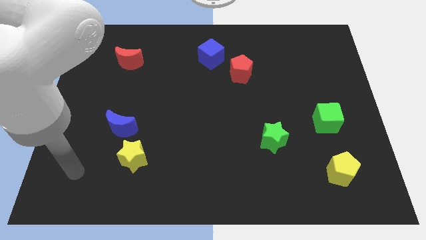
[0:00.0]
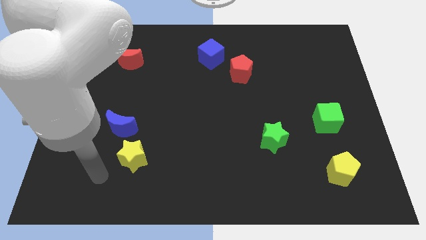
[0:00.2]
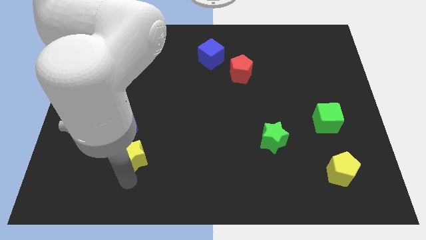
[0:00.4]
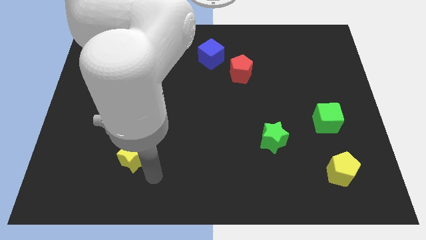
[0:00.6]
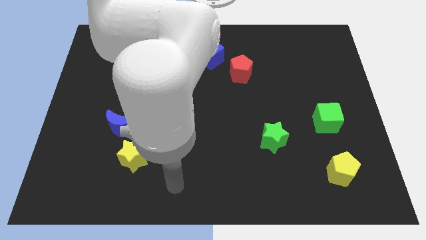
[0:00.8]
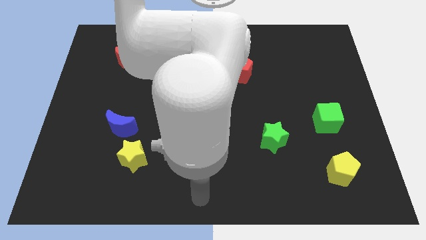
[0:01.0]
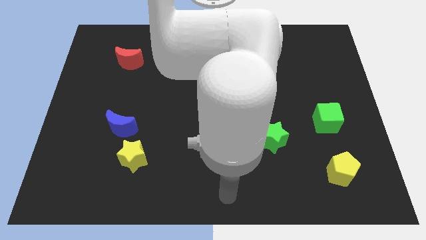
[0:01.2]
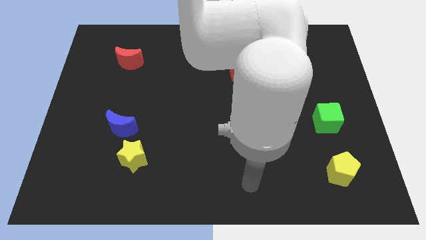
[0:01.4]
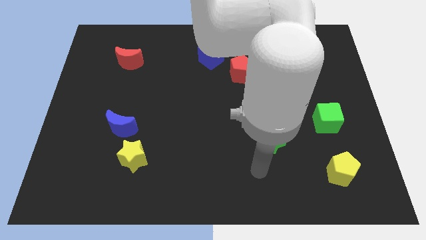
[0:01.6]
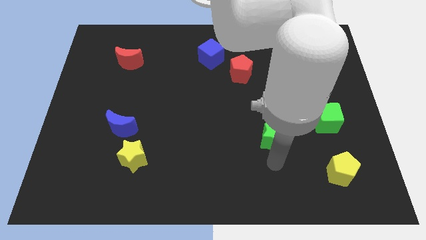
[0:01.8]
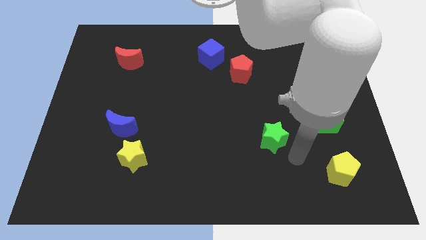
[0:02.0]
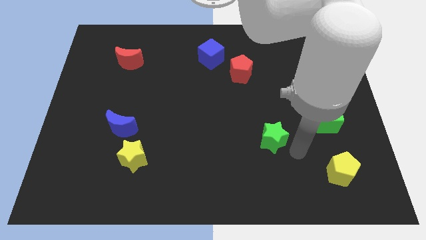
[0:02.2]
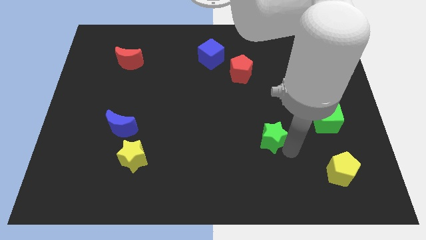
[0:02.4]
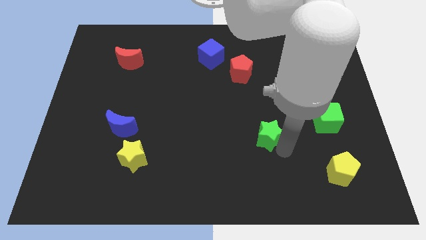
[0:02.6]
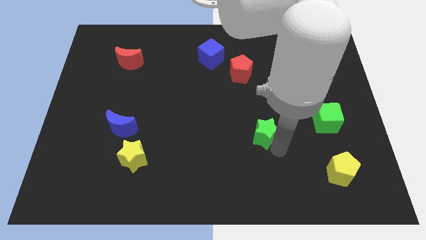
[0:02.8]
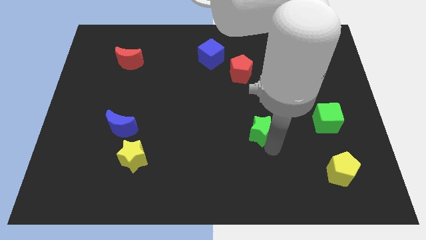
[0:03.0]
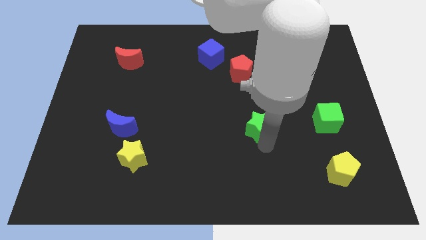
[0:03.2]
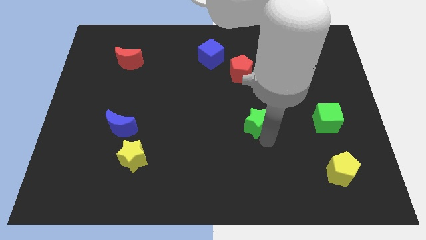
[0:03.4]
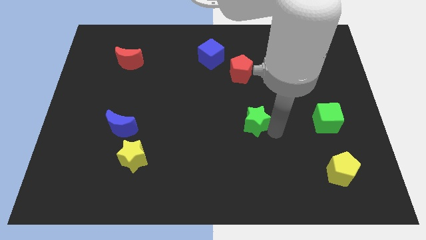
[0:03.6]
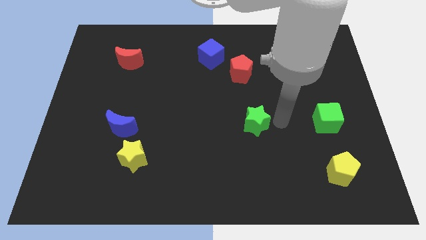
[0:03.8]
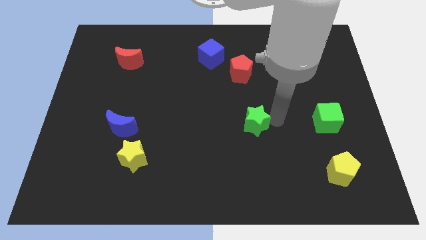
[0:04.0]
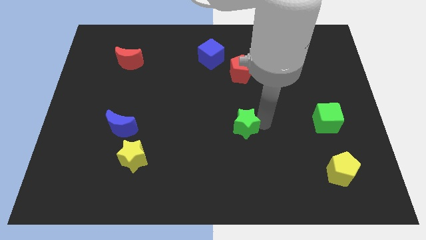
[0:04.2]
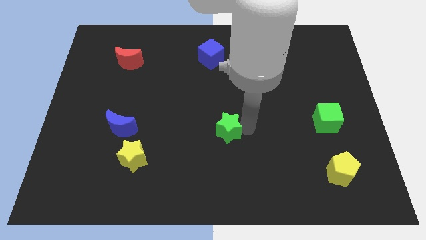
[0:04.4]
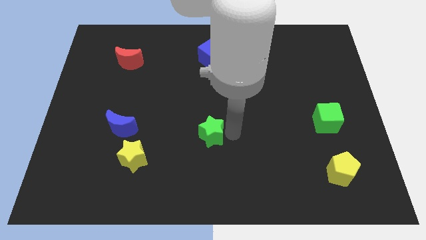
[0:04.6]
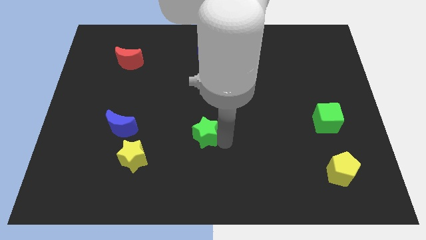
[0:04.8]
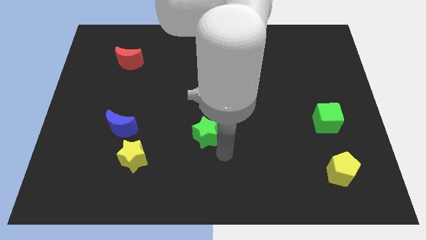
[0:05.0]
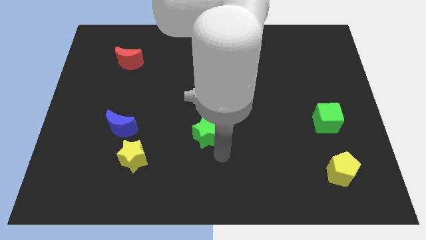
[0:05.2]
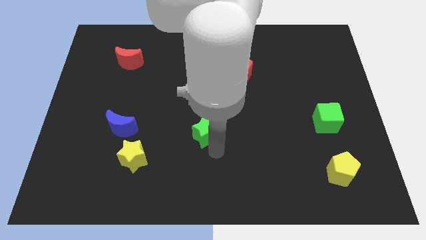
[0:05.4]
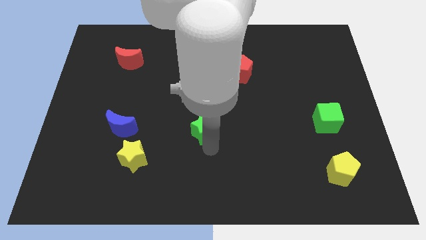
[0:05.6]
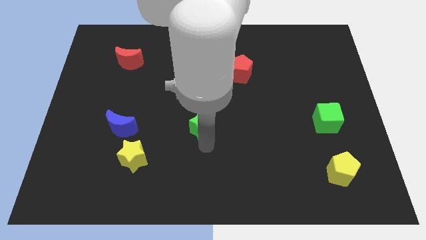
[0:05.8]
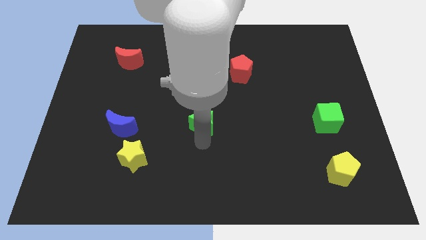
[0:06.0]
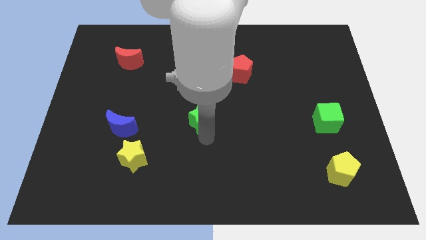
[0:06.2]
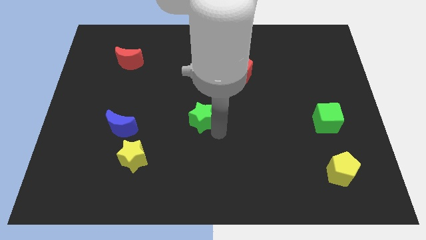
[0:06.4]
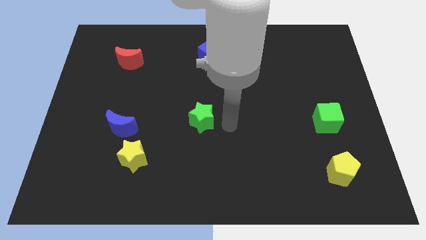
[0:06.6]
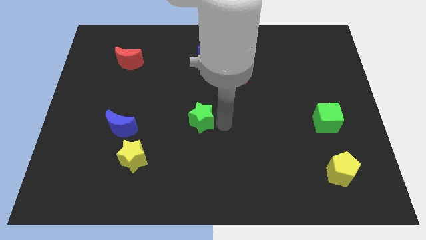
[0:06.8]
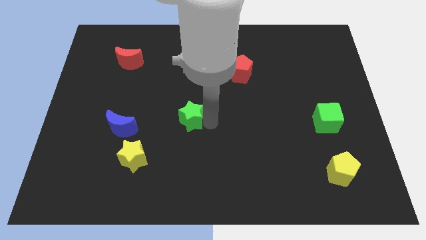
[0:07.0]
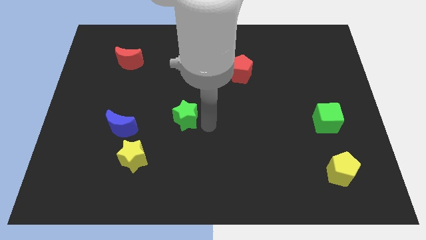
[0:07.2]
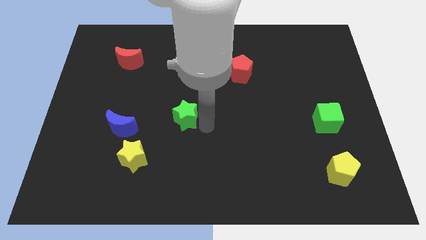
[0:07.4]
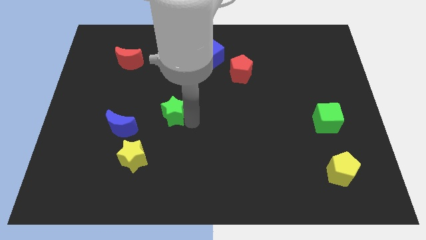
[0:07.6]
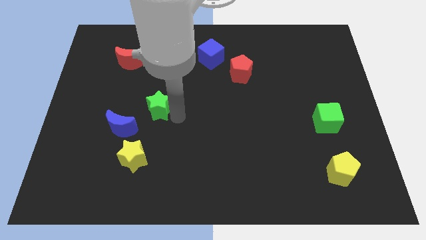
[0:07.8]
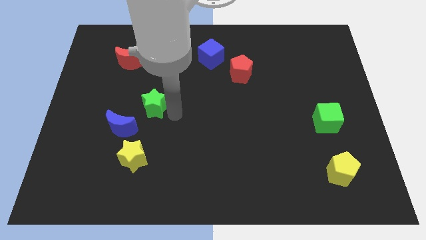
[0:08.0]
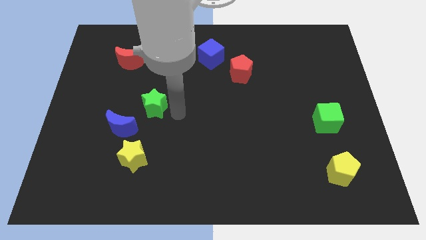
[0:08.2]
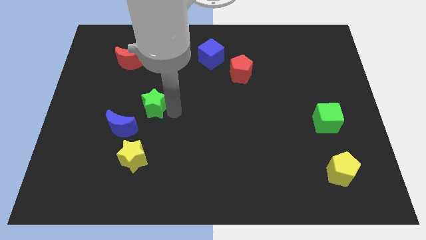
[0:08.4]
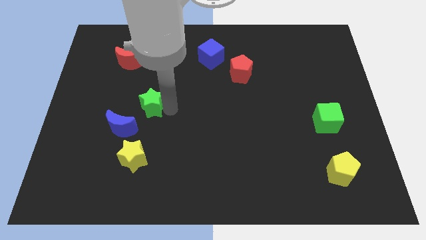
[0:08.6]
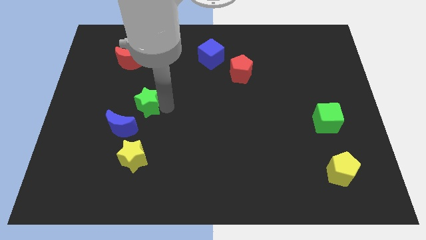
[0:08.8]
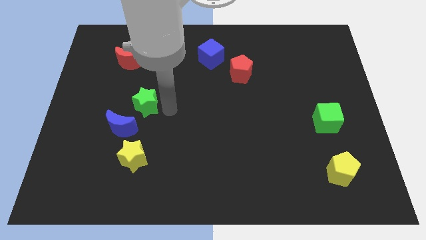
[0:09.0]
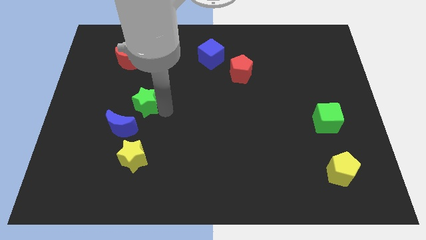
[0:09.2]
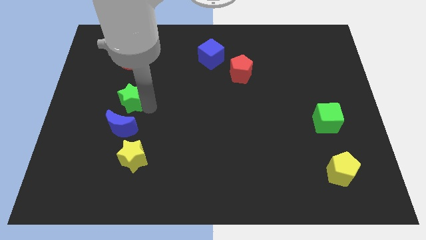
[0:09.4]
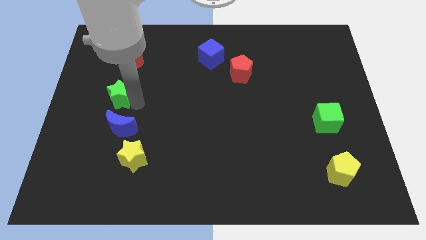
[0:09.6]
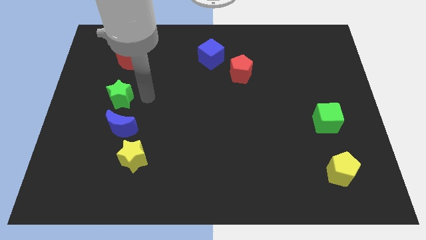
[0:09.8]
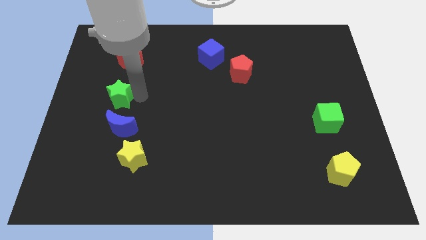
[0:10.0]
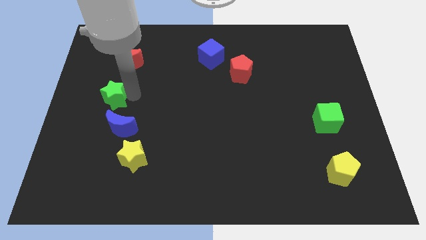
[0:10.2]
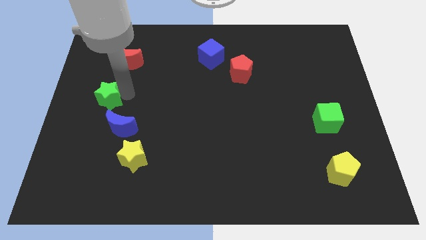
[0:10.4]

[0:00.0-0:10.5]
put the green star to the center left

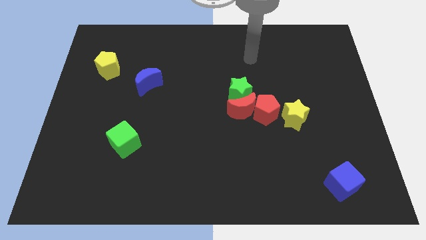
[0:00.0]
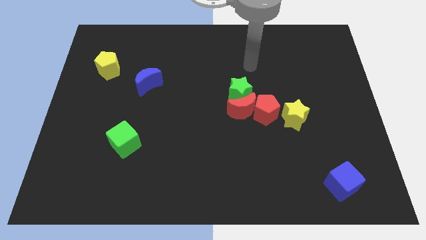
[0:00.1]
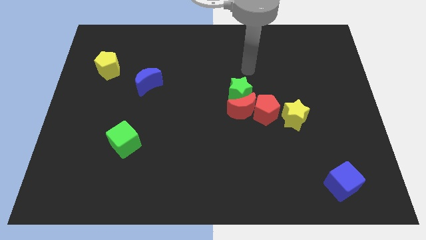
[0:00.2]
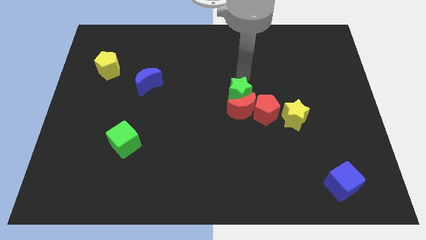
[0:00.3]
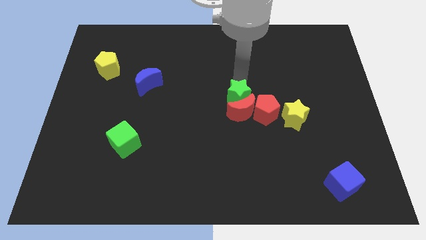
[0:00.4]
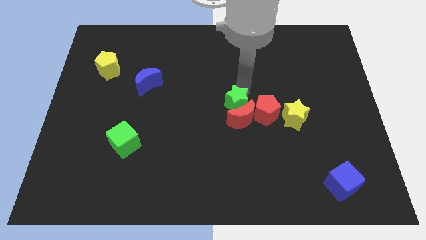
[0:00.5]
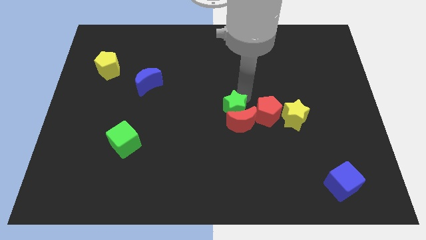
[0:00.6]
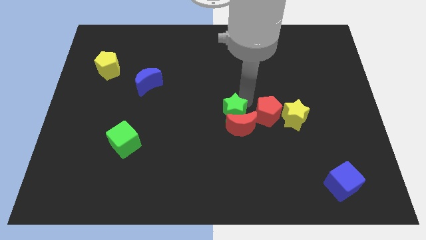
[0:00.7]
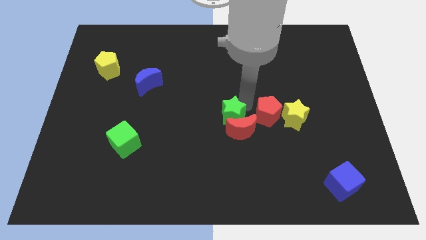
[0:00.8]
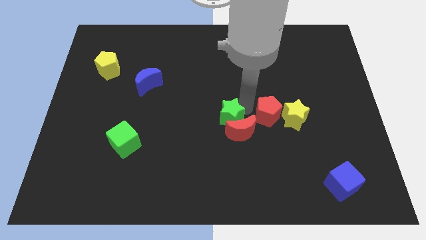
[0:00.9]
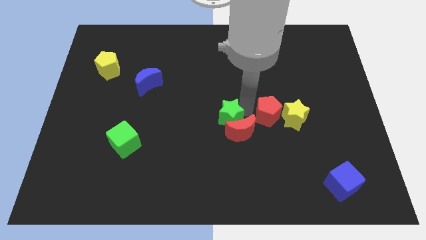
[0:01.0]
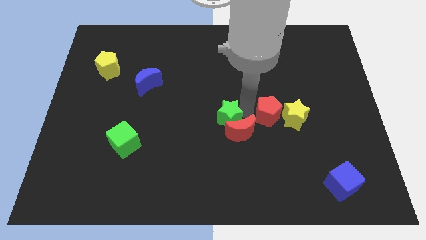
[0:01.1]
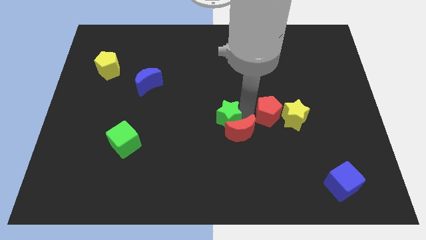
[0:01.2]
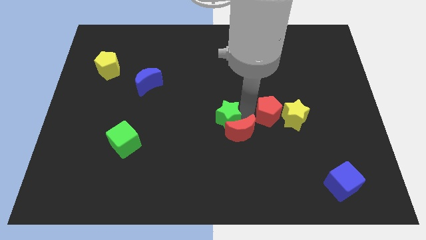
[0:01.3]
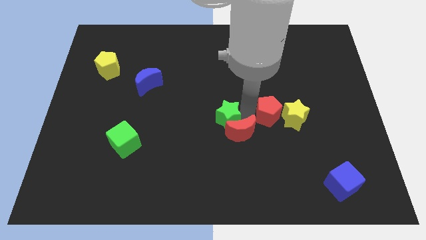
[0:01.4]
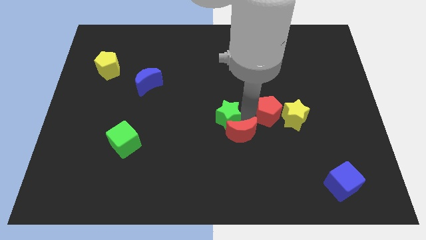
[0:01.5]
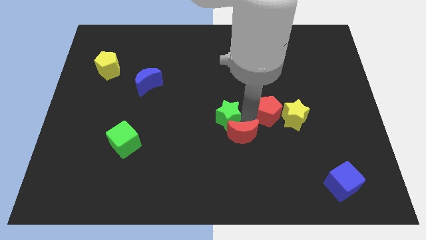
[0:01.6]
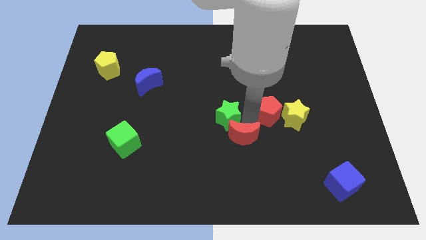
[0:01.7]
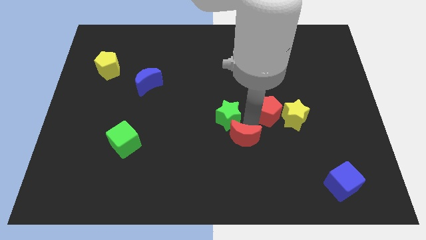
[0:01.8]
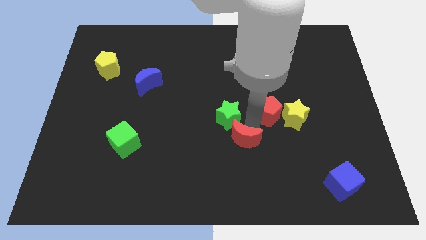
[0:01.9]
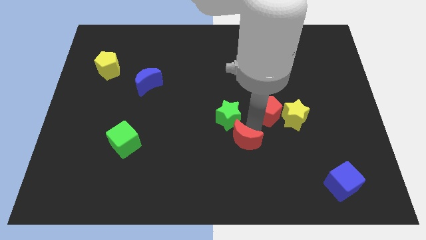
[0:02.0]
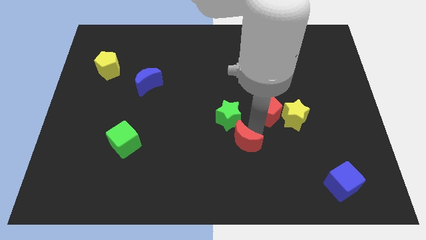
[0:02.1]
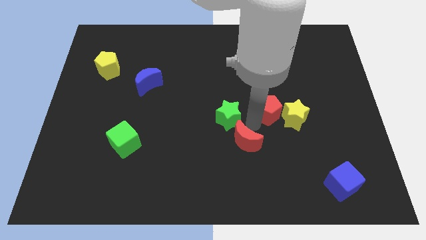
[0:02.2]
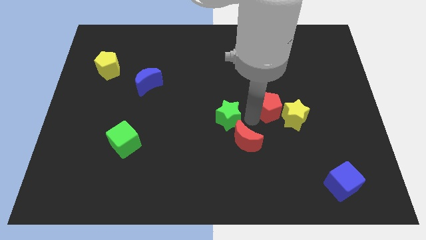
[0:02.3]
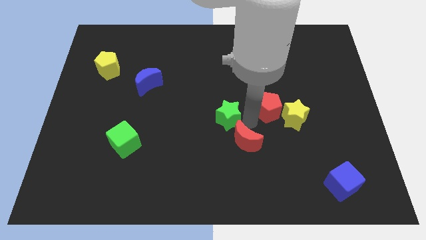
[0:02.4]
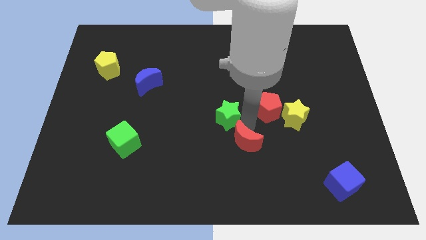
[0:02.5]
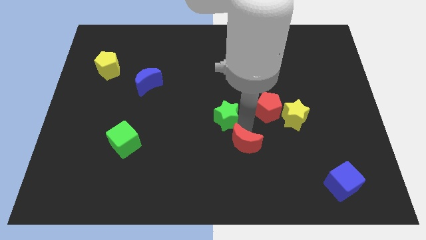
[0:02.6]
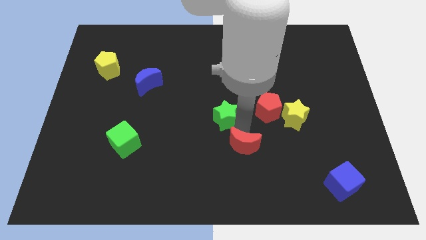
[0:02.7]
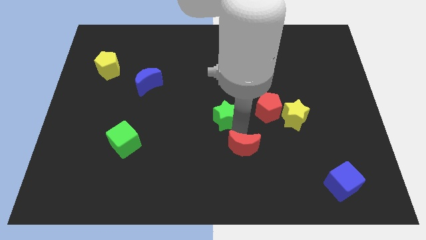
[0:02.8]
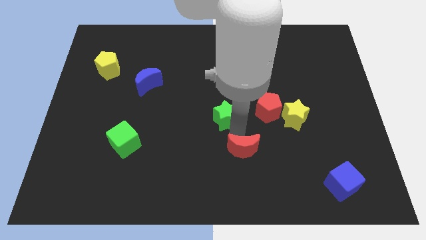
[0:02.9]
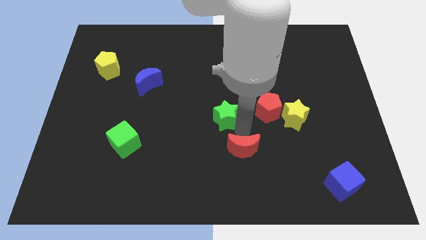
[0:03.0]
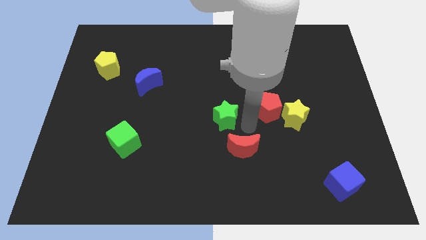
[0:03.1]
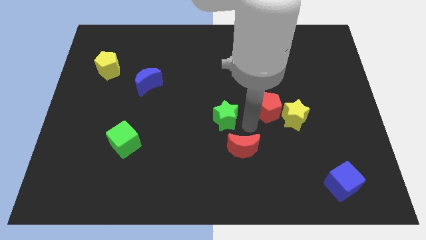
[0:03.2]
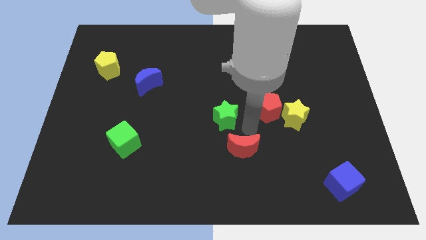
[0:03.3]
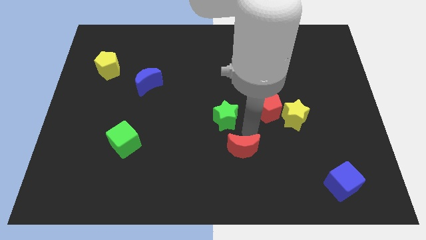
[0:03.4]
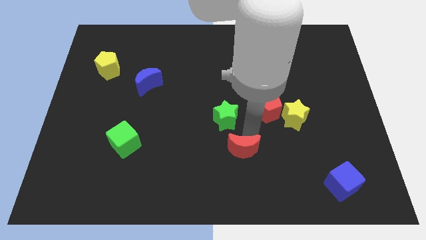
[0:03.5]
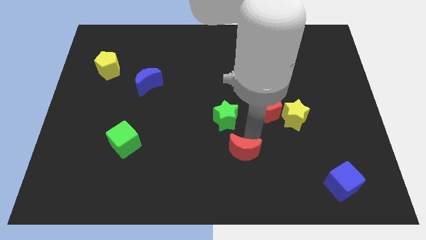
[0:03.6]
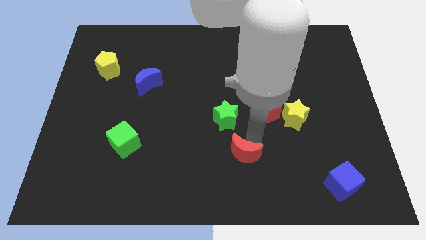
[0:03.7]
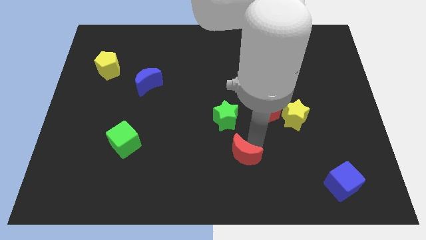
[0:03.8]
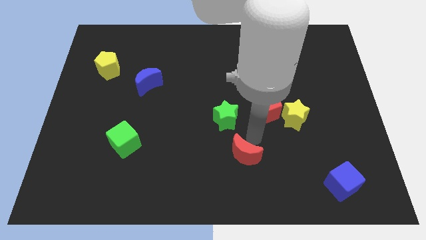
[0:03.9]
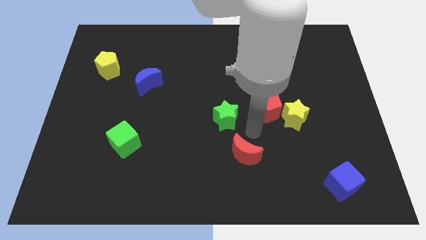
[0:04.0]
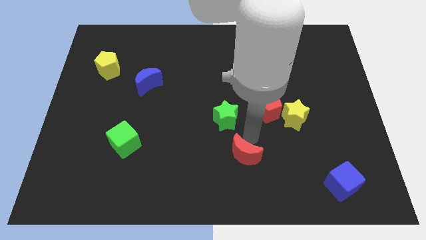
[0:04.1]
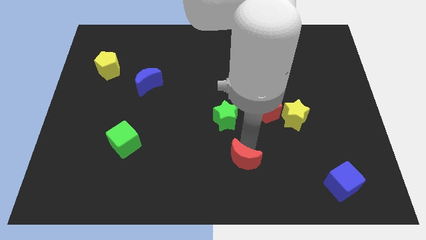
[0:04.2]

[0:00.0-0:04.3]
push the red moon to the bottom side
